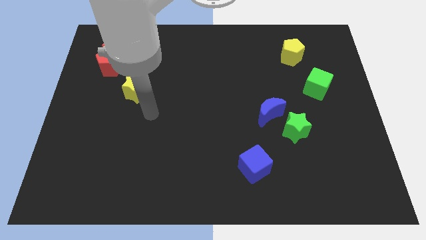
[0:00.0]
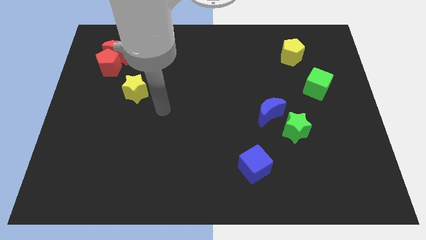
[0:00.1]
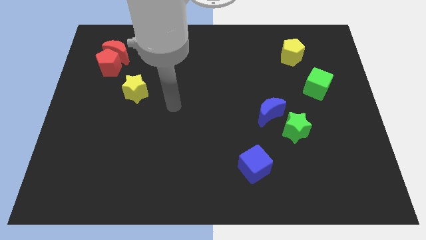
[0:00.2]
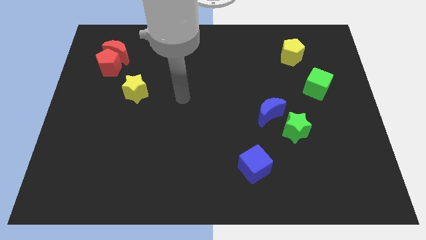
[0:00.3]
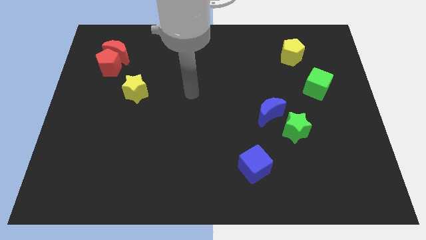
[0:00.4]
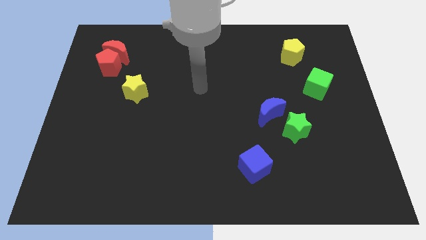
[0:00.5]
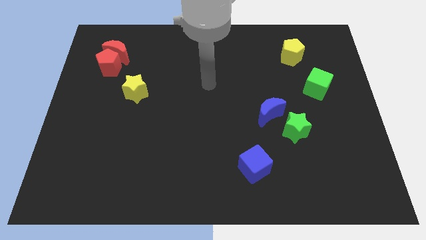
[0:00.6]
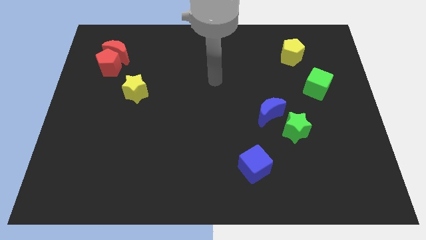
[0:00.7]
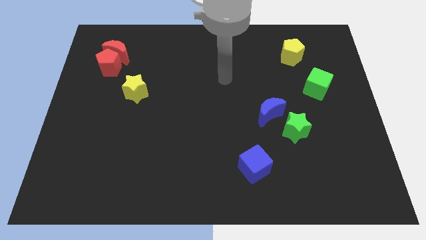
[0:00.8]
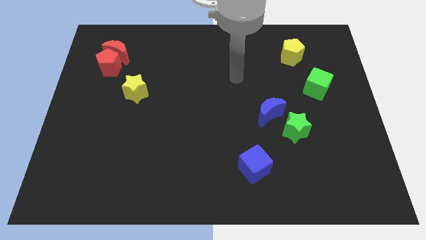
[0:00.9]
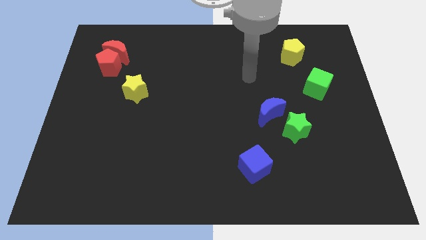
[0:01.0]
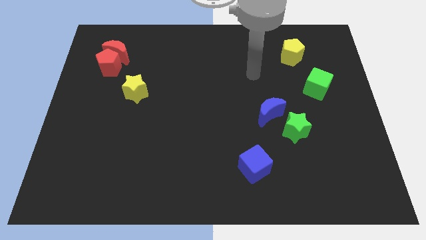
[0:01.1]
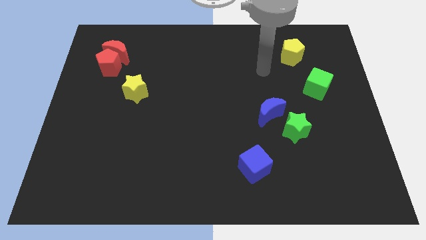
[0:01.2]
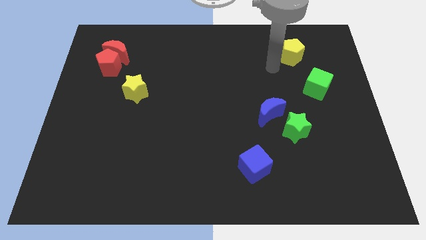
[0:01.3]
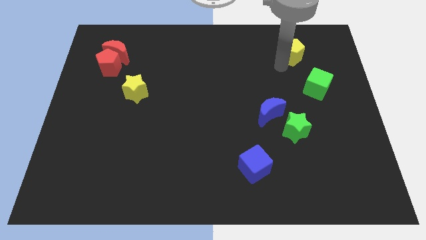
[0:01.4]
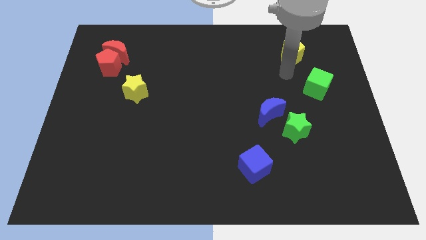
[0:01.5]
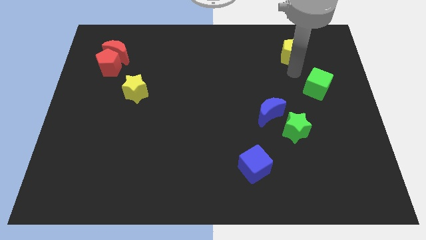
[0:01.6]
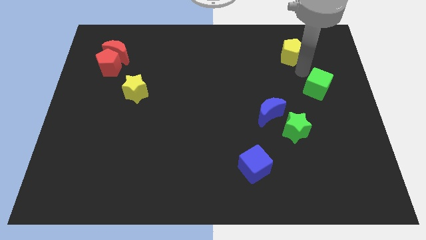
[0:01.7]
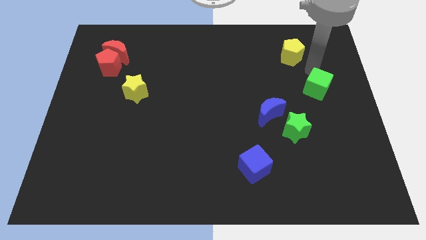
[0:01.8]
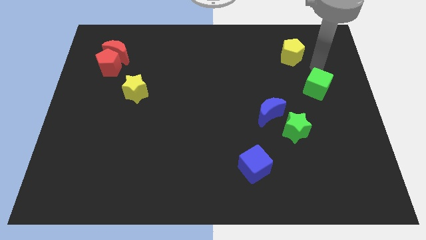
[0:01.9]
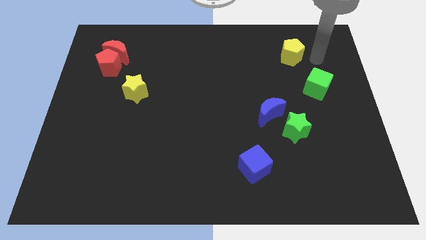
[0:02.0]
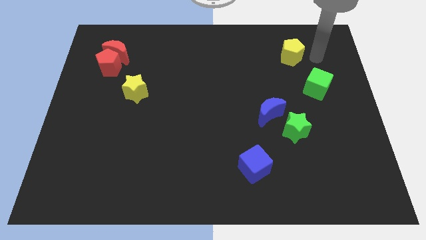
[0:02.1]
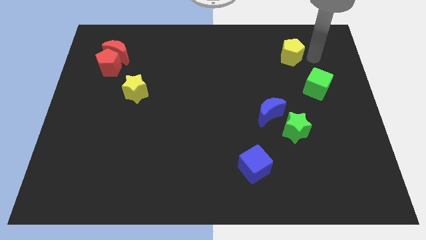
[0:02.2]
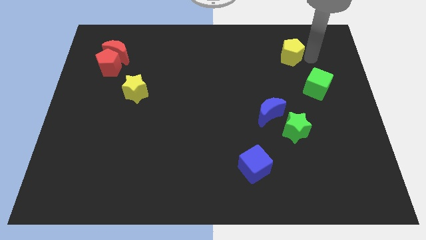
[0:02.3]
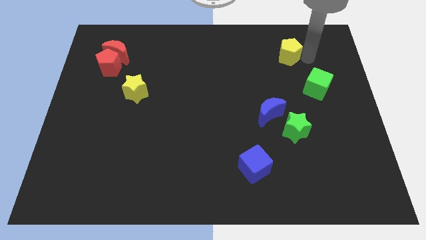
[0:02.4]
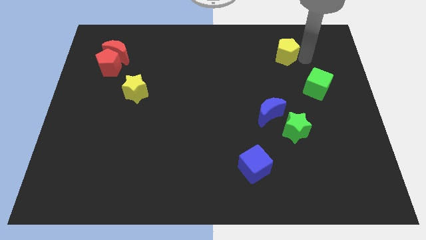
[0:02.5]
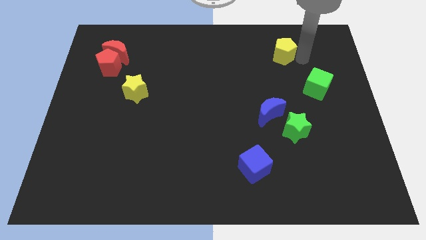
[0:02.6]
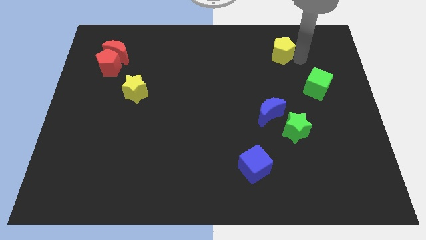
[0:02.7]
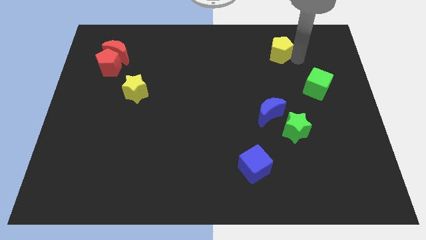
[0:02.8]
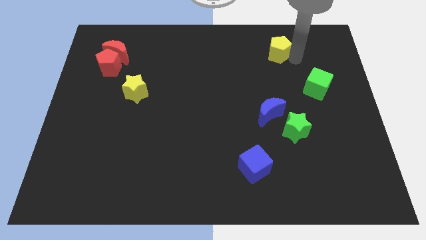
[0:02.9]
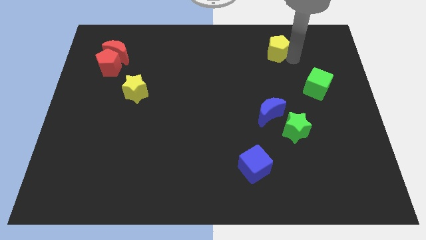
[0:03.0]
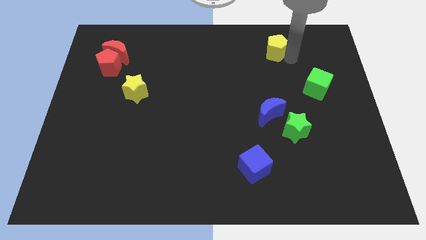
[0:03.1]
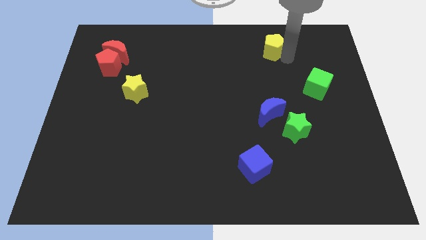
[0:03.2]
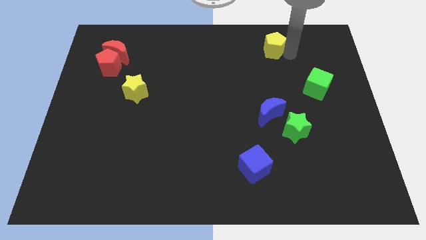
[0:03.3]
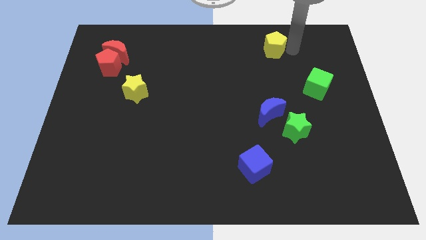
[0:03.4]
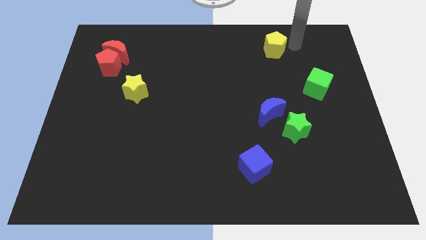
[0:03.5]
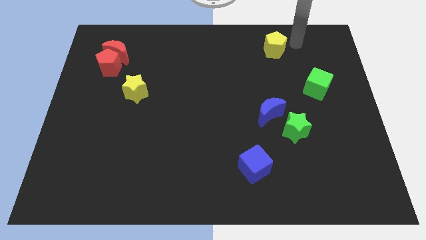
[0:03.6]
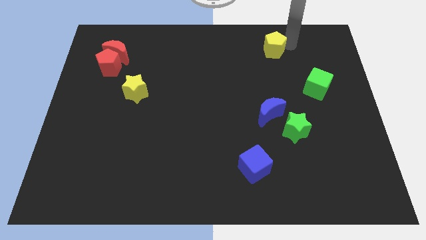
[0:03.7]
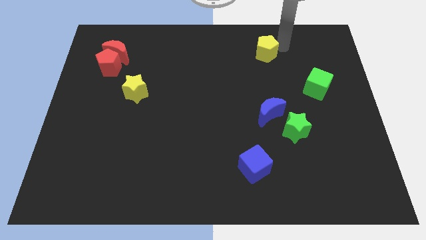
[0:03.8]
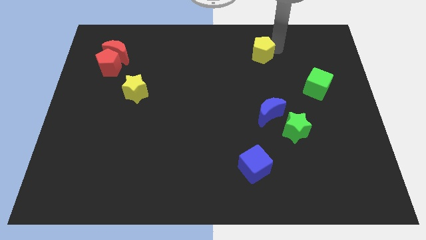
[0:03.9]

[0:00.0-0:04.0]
push the yellow pentagon somewhat to the left

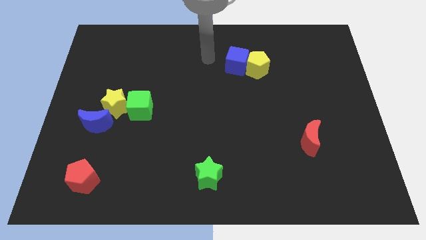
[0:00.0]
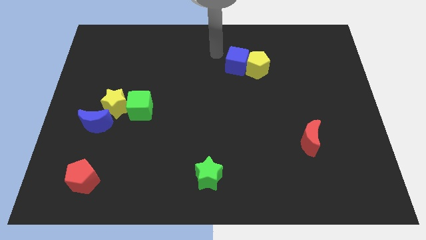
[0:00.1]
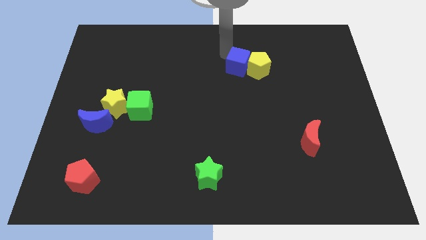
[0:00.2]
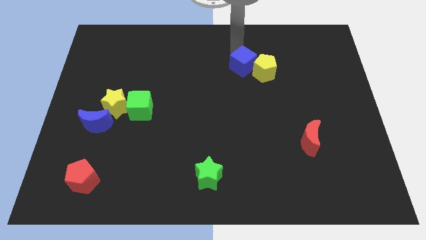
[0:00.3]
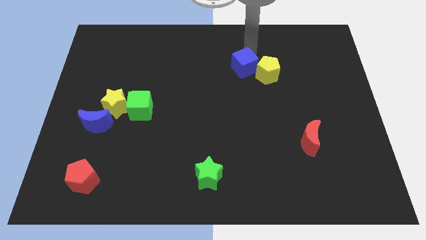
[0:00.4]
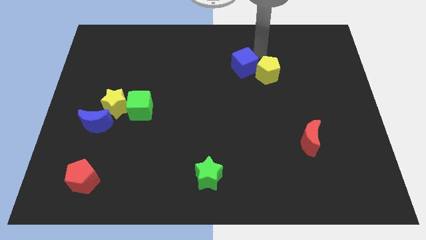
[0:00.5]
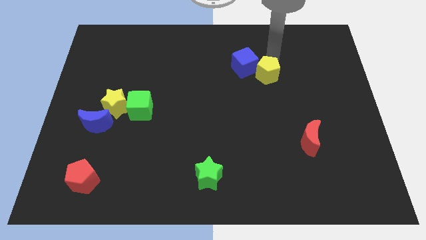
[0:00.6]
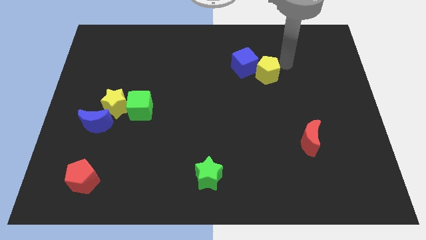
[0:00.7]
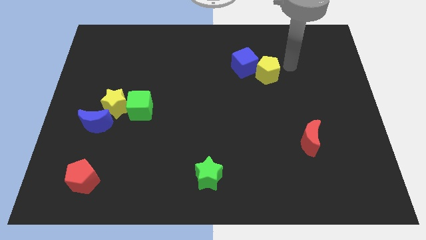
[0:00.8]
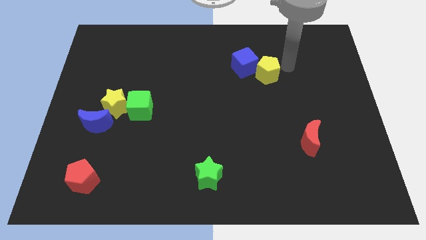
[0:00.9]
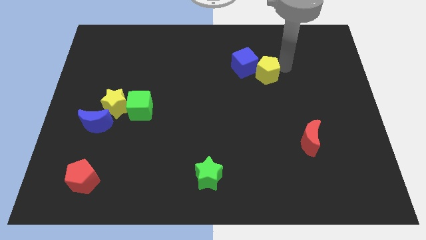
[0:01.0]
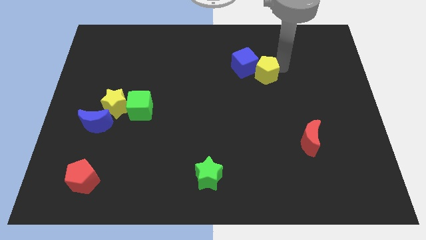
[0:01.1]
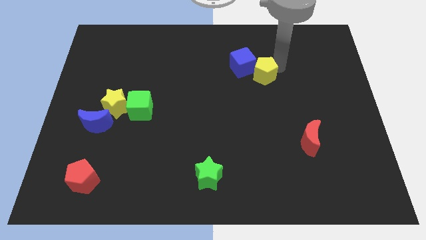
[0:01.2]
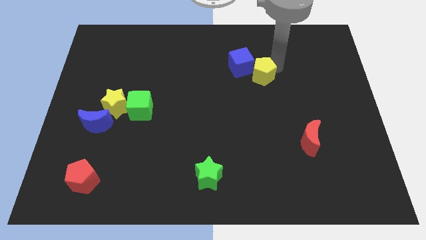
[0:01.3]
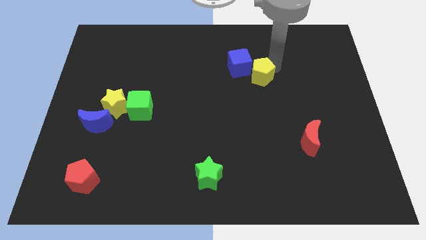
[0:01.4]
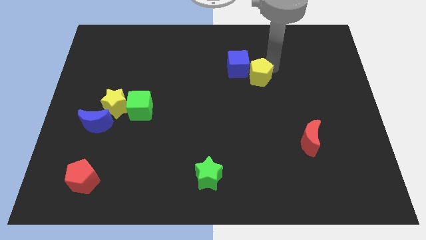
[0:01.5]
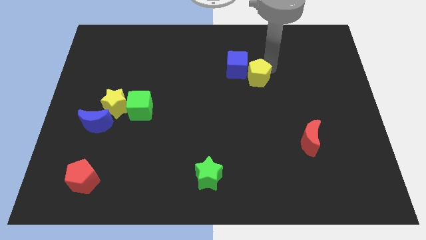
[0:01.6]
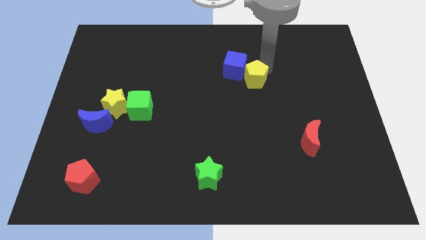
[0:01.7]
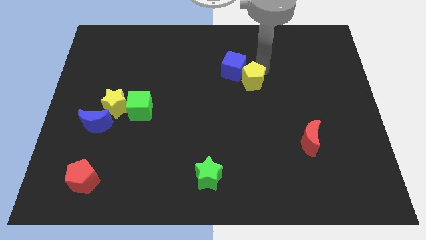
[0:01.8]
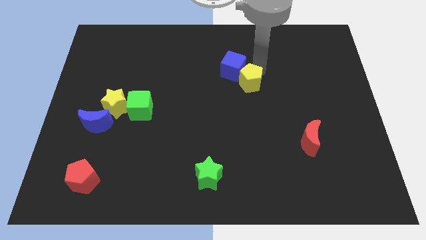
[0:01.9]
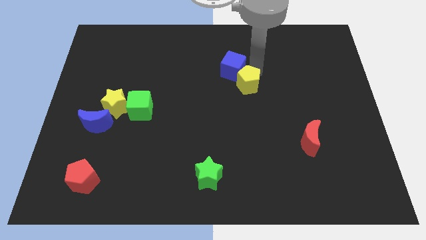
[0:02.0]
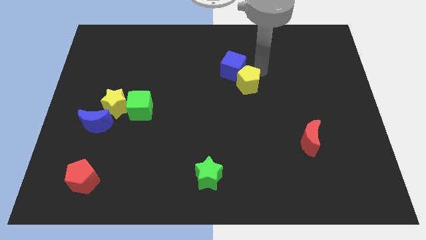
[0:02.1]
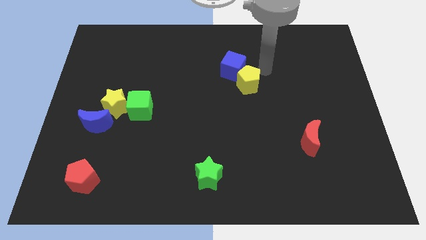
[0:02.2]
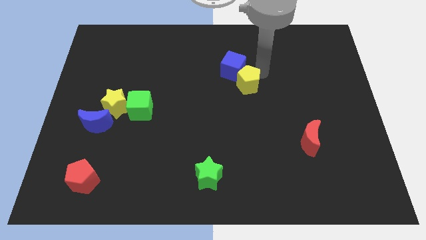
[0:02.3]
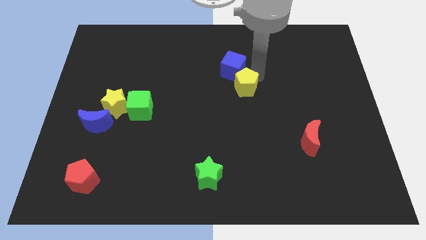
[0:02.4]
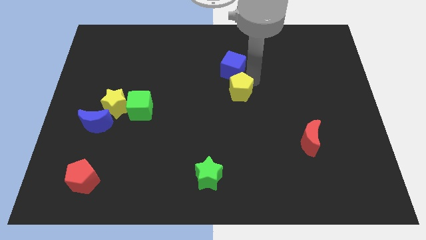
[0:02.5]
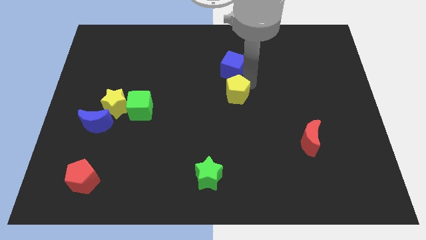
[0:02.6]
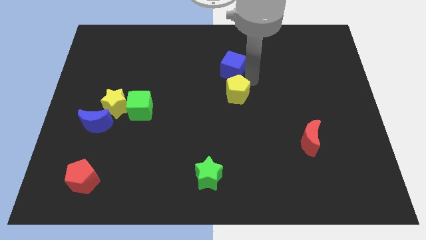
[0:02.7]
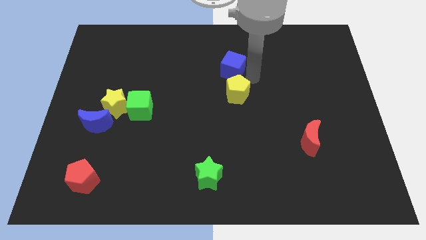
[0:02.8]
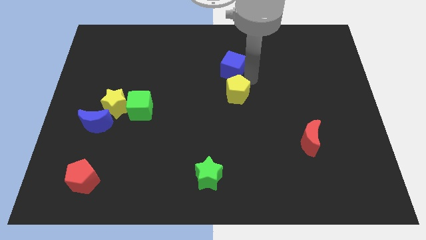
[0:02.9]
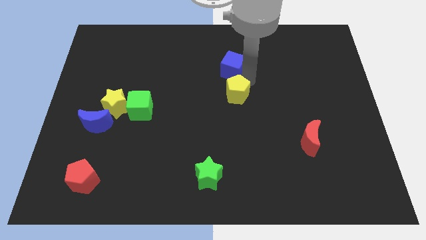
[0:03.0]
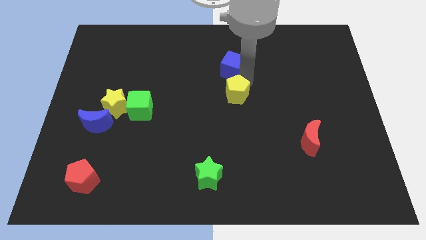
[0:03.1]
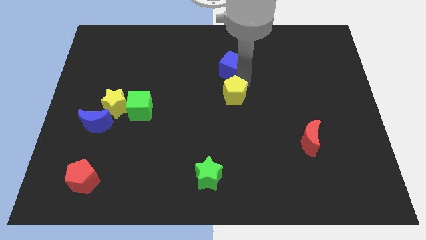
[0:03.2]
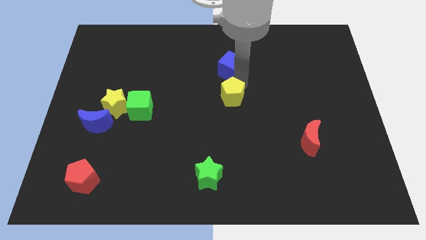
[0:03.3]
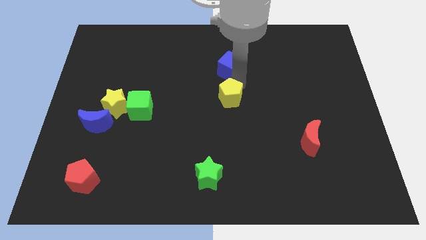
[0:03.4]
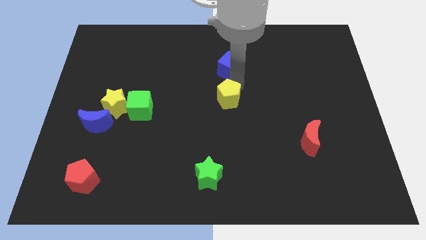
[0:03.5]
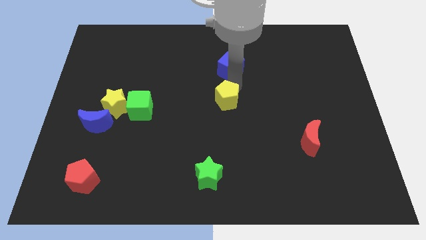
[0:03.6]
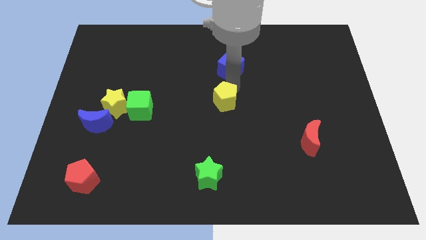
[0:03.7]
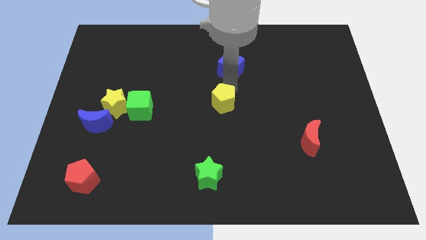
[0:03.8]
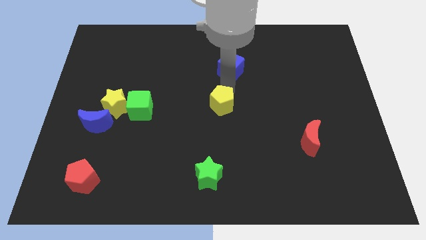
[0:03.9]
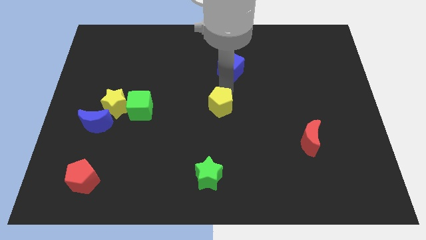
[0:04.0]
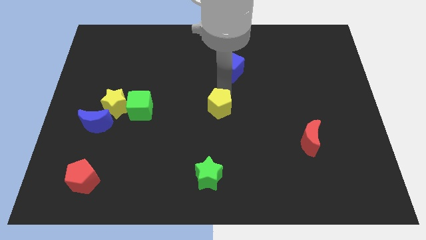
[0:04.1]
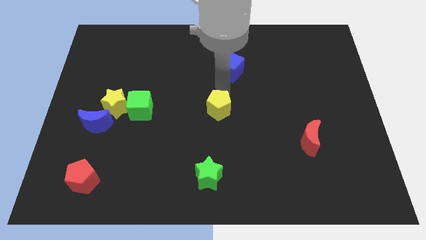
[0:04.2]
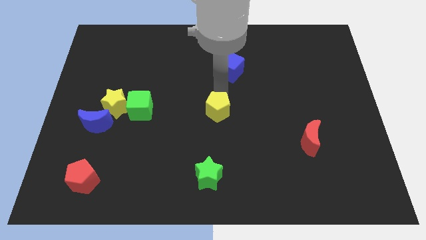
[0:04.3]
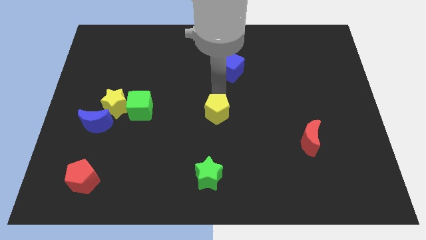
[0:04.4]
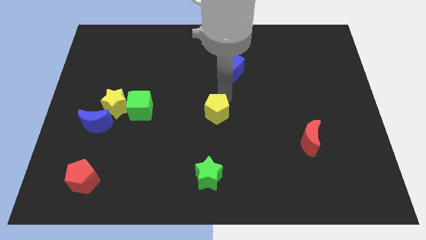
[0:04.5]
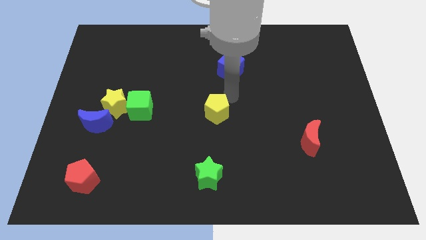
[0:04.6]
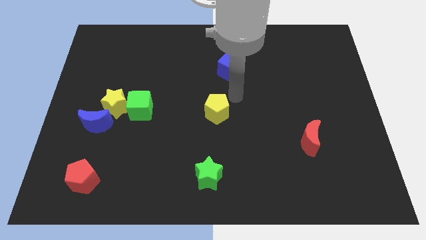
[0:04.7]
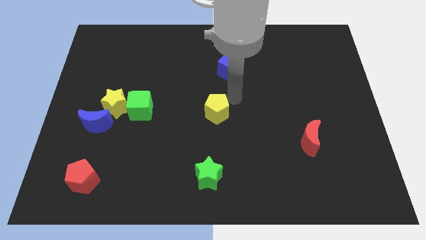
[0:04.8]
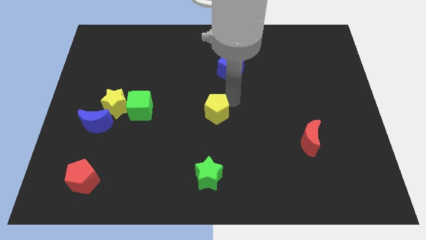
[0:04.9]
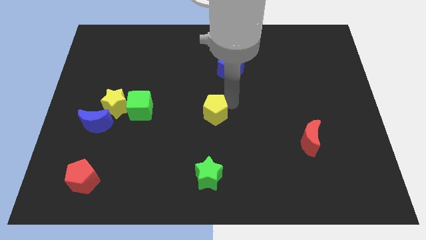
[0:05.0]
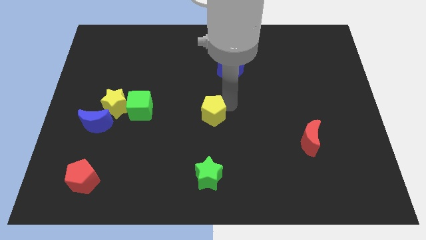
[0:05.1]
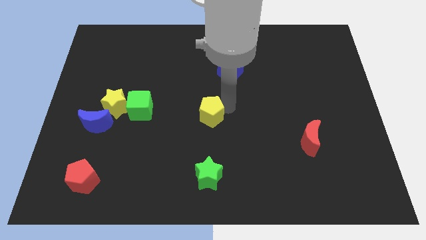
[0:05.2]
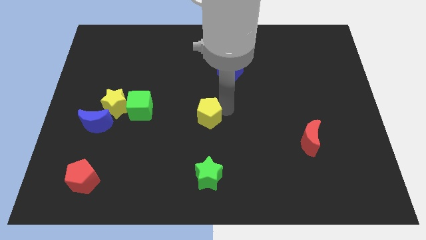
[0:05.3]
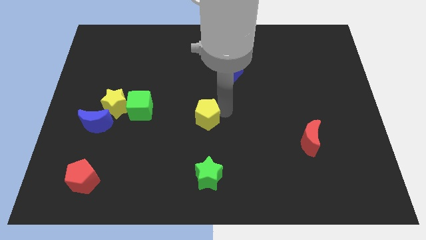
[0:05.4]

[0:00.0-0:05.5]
slide the yellow pentagon diagonally down and to the left
